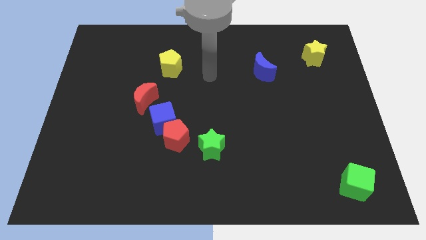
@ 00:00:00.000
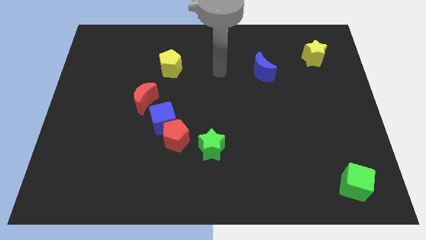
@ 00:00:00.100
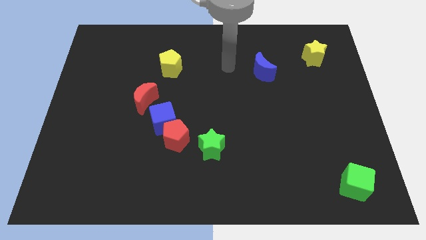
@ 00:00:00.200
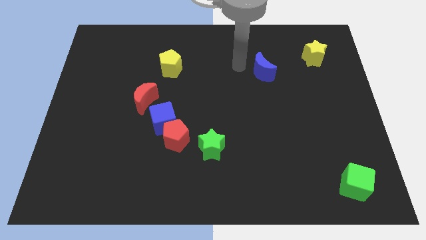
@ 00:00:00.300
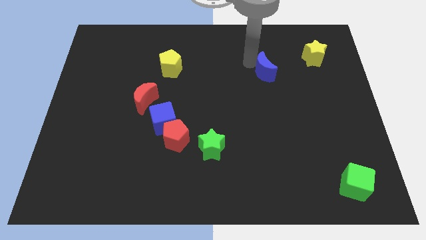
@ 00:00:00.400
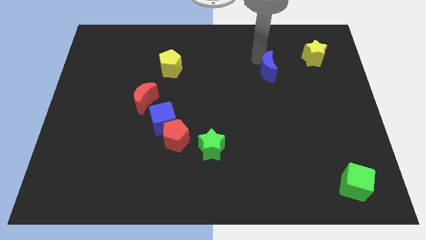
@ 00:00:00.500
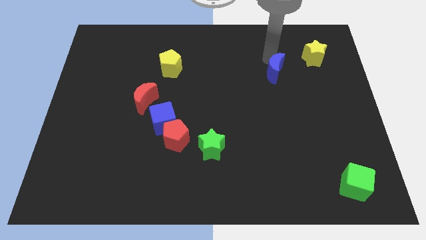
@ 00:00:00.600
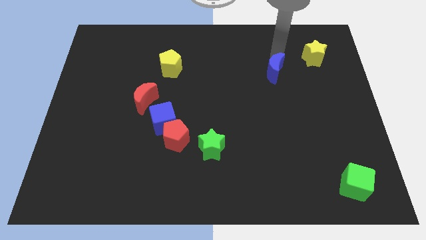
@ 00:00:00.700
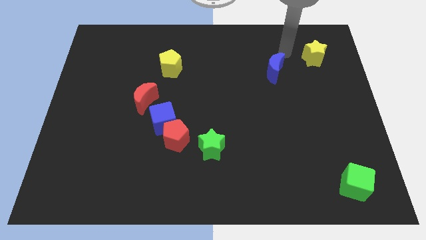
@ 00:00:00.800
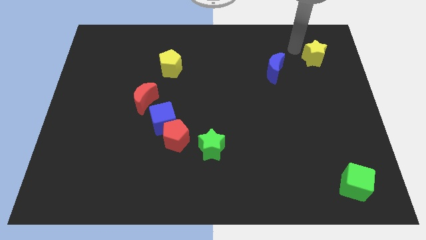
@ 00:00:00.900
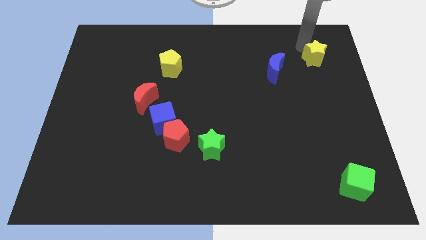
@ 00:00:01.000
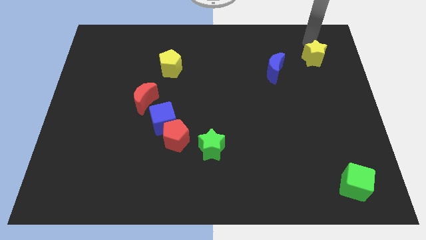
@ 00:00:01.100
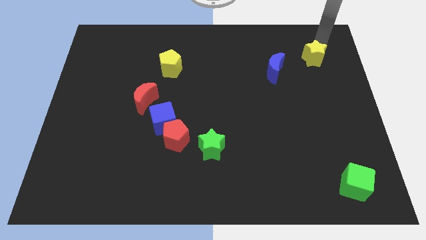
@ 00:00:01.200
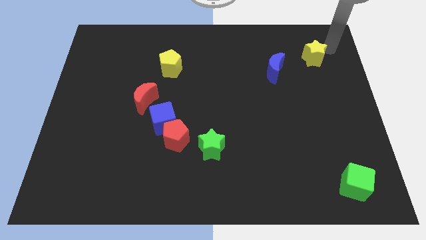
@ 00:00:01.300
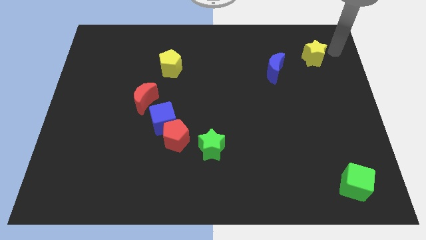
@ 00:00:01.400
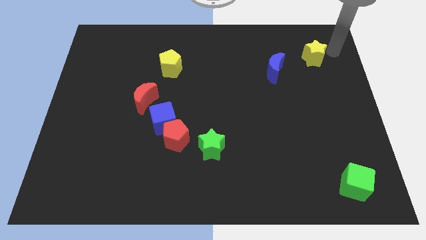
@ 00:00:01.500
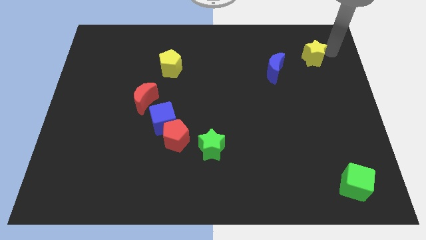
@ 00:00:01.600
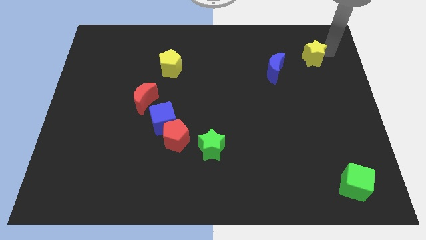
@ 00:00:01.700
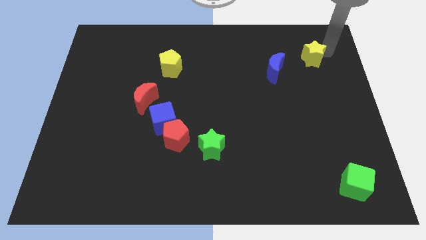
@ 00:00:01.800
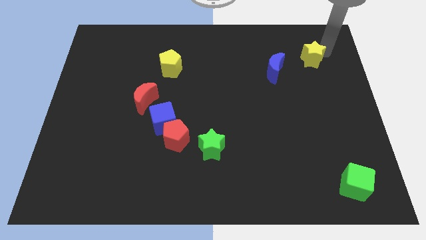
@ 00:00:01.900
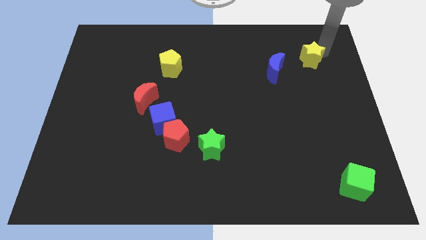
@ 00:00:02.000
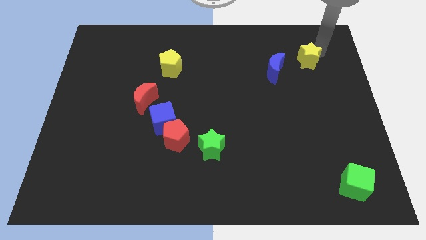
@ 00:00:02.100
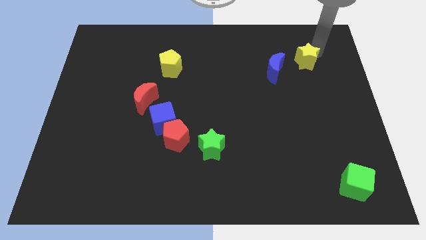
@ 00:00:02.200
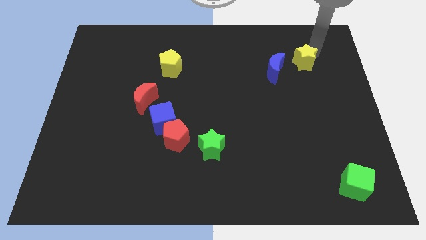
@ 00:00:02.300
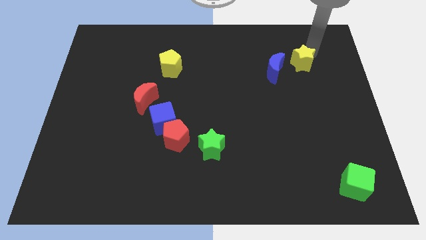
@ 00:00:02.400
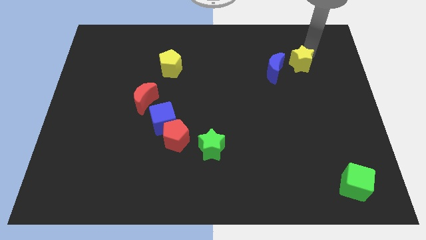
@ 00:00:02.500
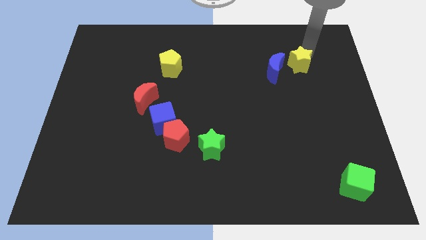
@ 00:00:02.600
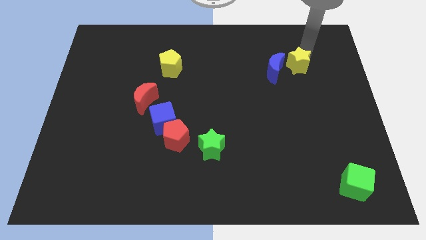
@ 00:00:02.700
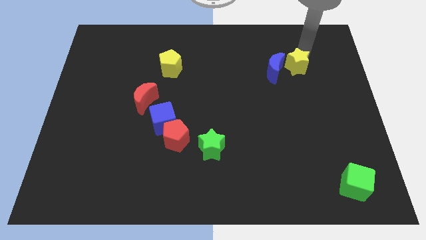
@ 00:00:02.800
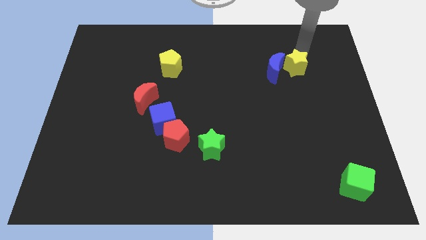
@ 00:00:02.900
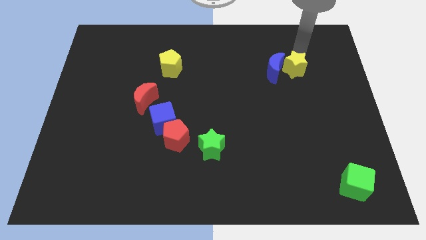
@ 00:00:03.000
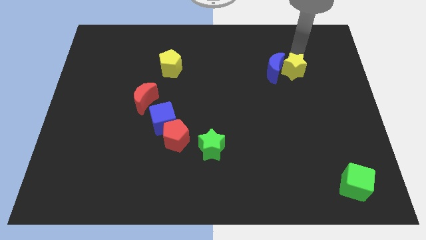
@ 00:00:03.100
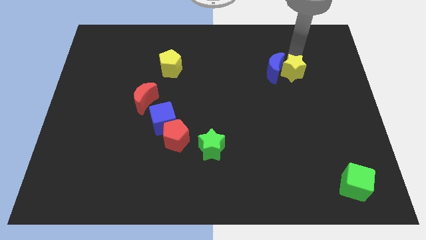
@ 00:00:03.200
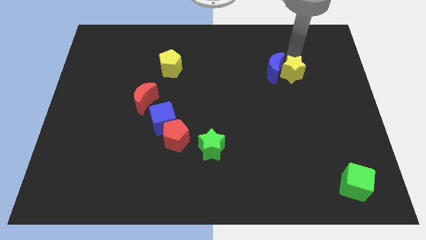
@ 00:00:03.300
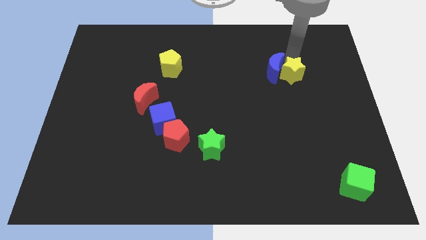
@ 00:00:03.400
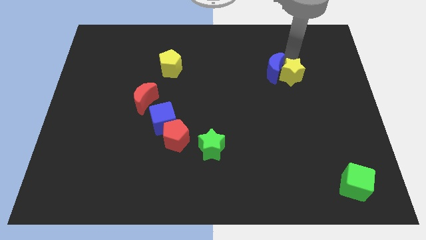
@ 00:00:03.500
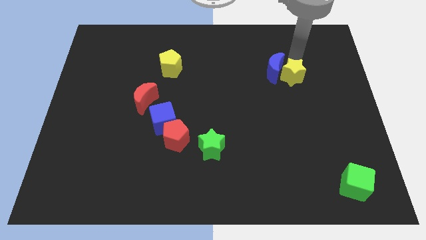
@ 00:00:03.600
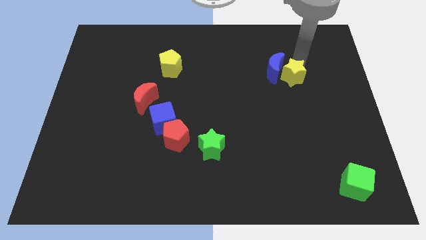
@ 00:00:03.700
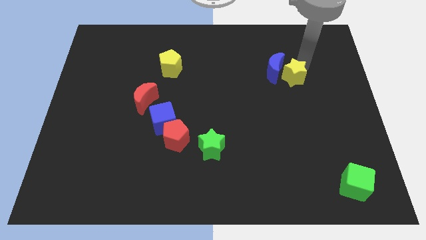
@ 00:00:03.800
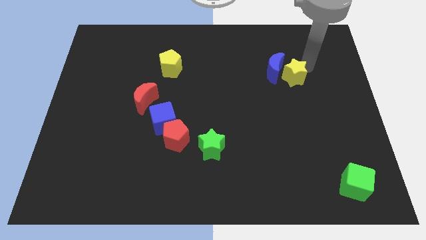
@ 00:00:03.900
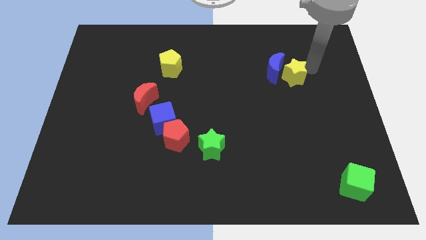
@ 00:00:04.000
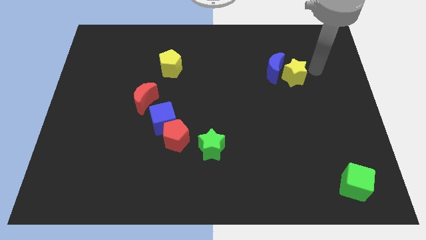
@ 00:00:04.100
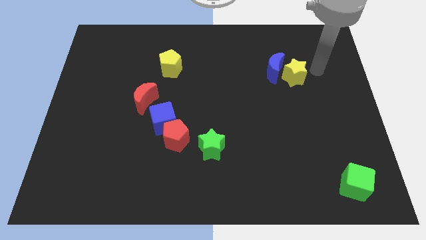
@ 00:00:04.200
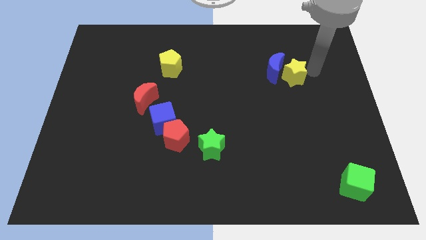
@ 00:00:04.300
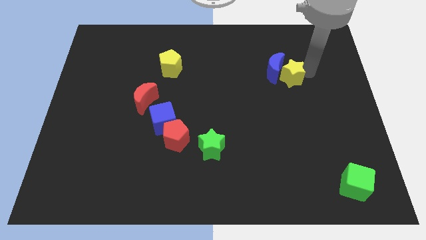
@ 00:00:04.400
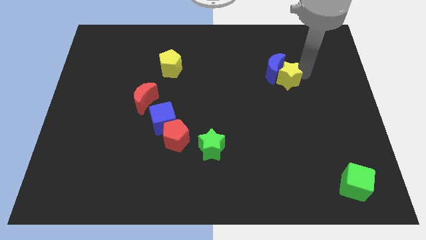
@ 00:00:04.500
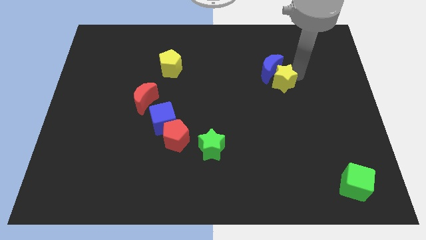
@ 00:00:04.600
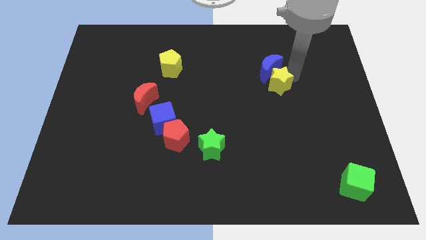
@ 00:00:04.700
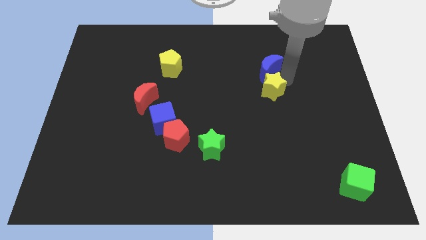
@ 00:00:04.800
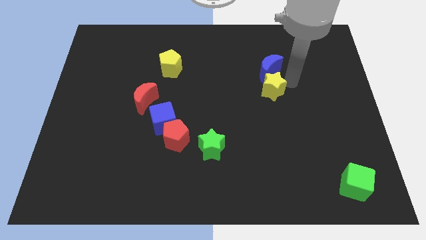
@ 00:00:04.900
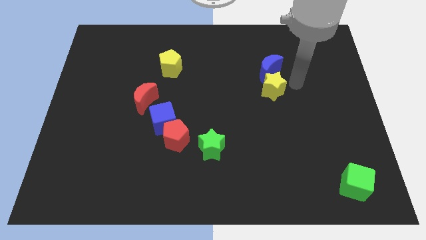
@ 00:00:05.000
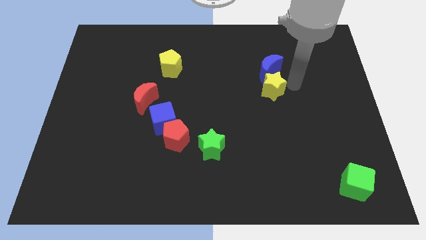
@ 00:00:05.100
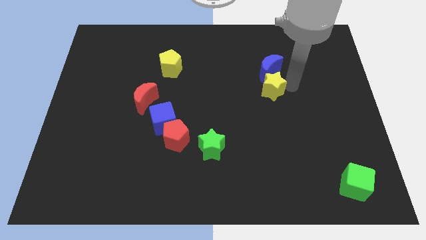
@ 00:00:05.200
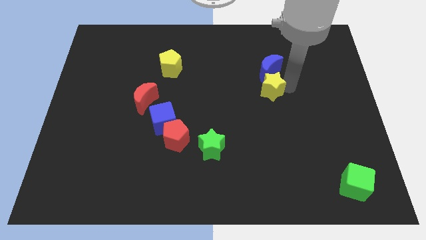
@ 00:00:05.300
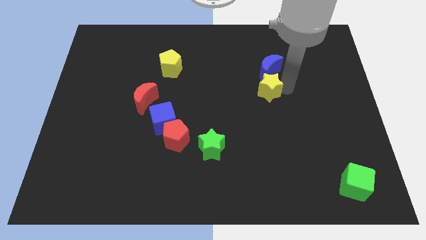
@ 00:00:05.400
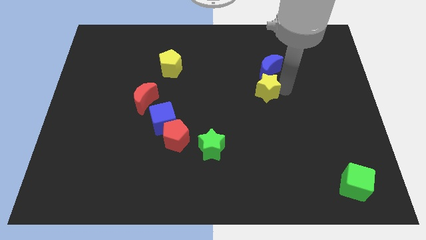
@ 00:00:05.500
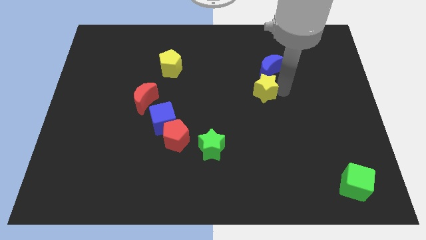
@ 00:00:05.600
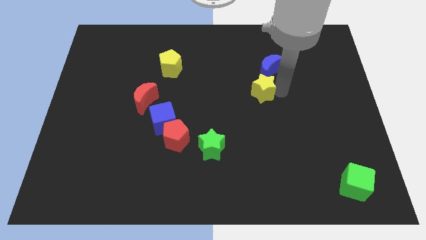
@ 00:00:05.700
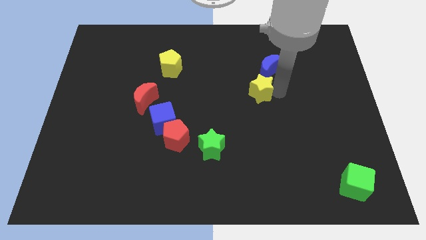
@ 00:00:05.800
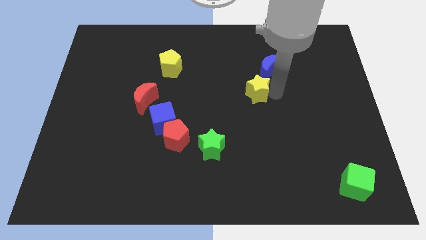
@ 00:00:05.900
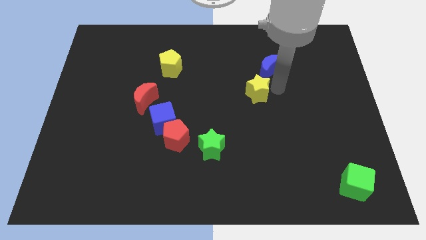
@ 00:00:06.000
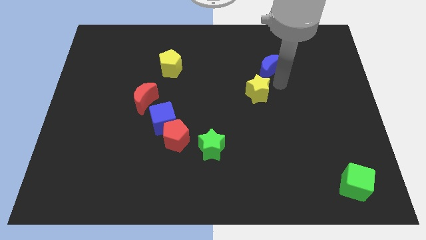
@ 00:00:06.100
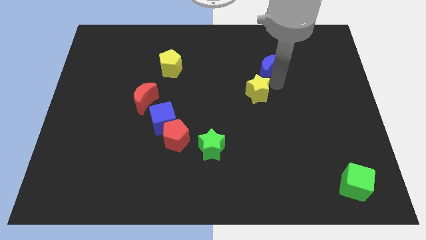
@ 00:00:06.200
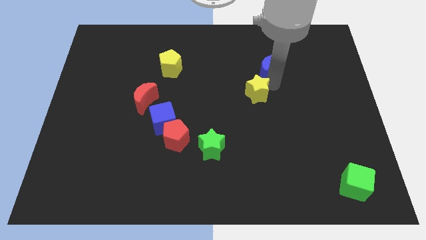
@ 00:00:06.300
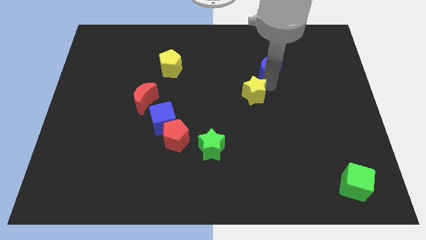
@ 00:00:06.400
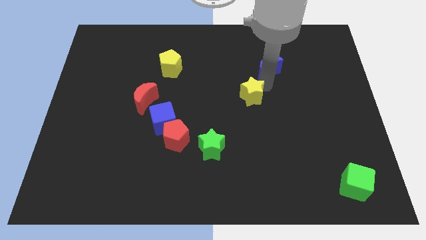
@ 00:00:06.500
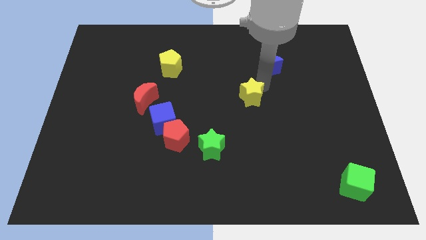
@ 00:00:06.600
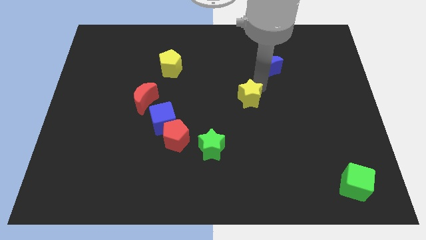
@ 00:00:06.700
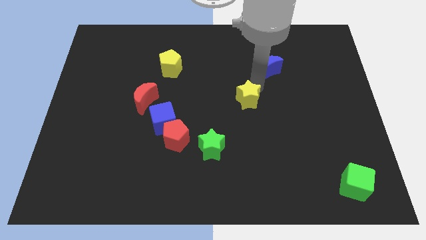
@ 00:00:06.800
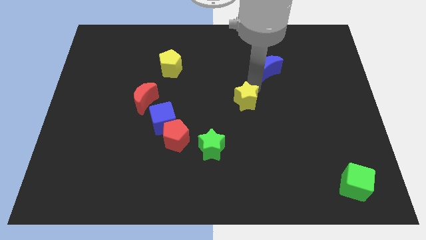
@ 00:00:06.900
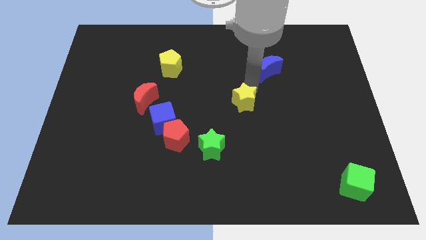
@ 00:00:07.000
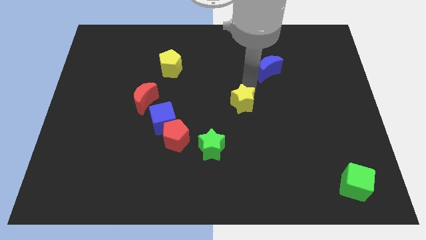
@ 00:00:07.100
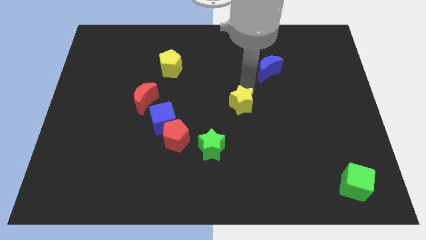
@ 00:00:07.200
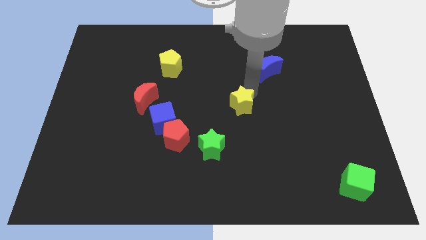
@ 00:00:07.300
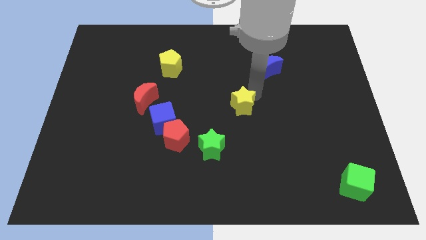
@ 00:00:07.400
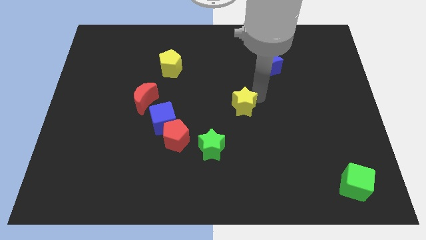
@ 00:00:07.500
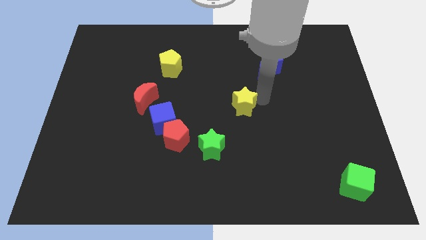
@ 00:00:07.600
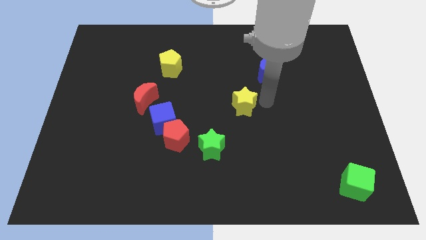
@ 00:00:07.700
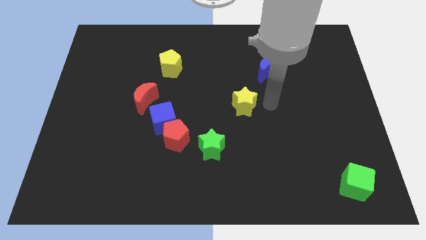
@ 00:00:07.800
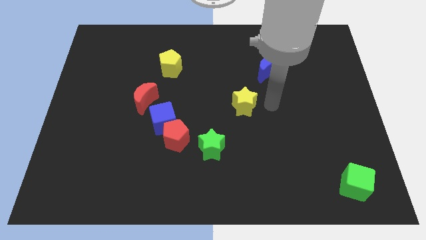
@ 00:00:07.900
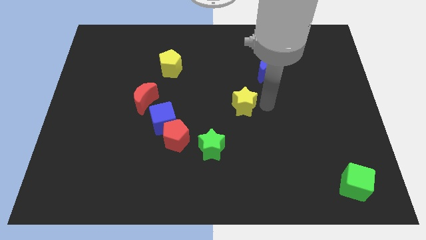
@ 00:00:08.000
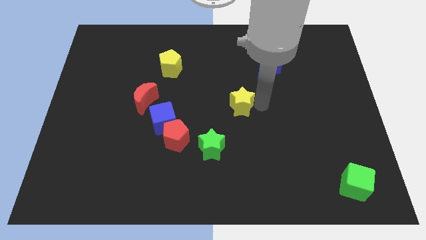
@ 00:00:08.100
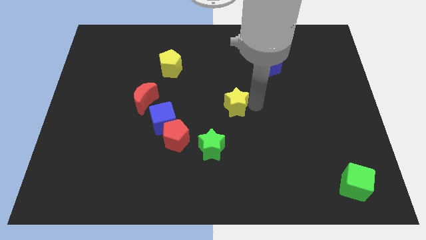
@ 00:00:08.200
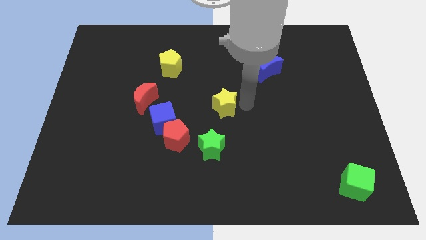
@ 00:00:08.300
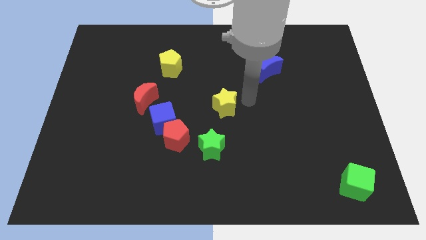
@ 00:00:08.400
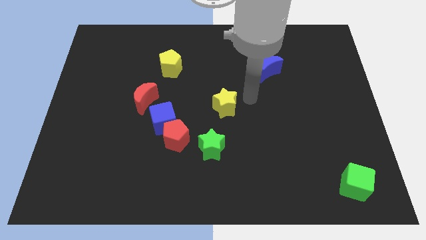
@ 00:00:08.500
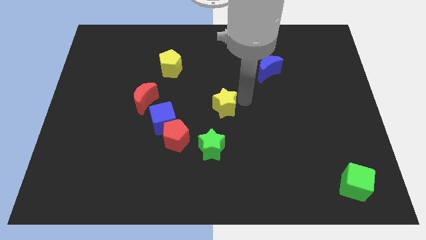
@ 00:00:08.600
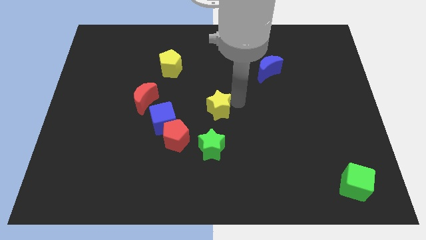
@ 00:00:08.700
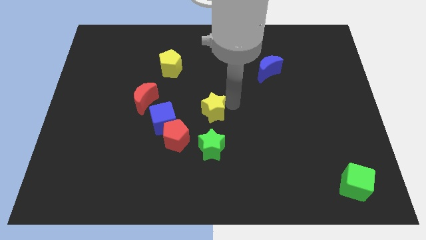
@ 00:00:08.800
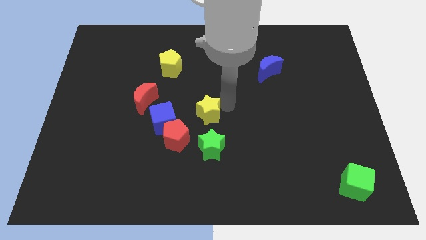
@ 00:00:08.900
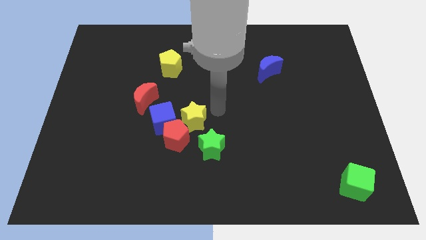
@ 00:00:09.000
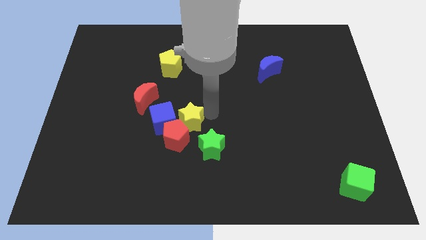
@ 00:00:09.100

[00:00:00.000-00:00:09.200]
slide the yellow star next to the blue cube
